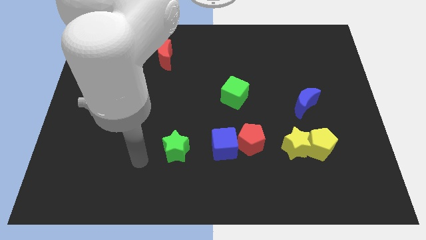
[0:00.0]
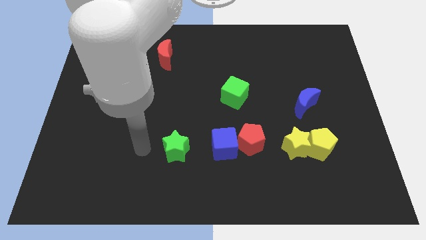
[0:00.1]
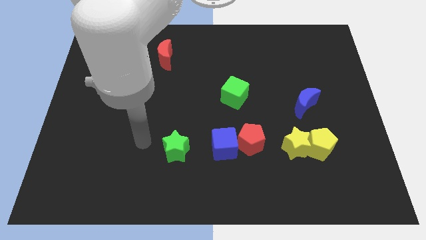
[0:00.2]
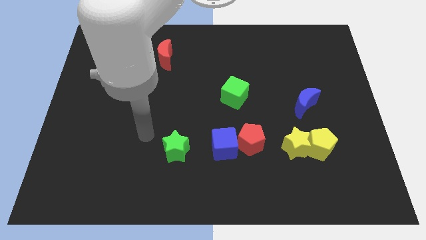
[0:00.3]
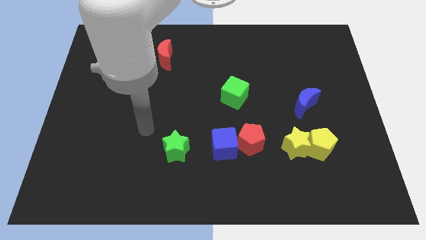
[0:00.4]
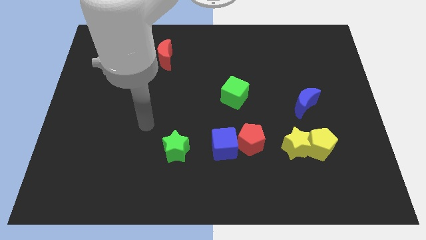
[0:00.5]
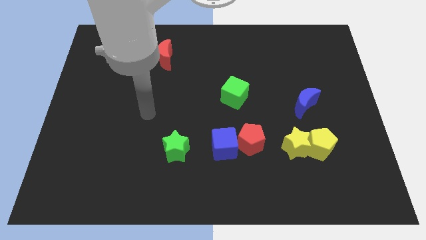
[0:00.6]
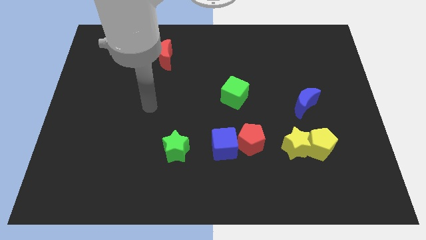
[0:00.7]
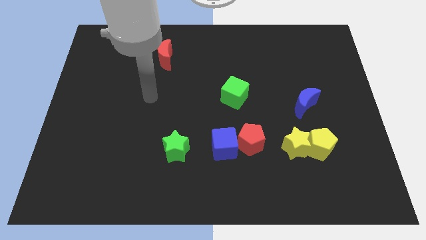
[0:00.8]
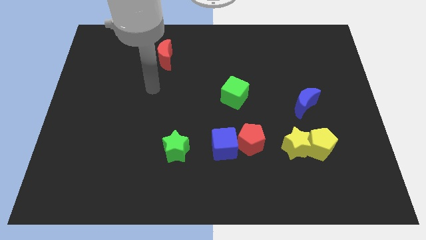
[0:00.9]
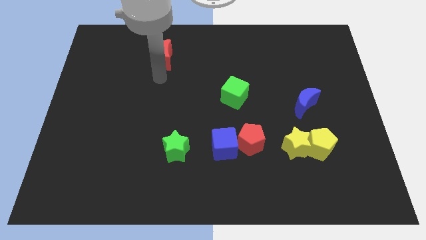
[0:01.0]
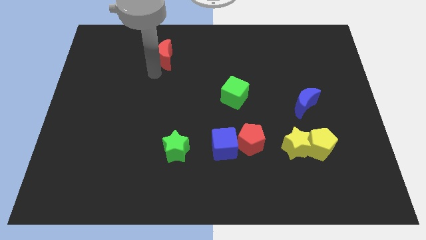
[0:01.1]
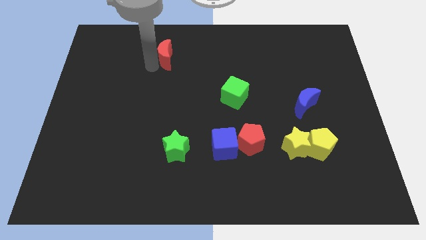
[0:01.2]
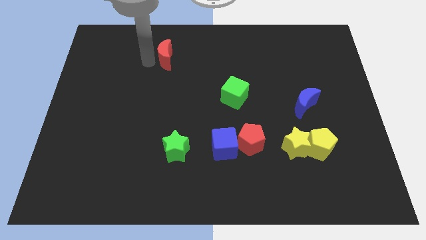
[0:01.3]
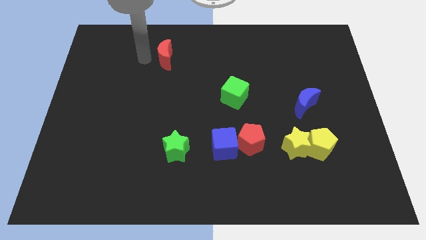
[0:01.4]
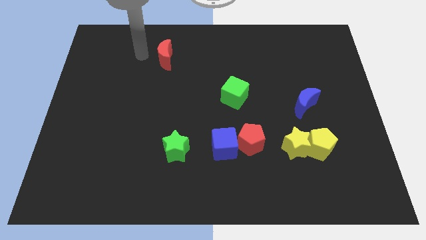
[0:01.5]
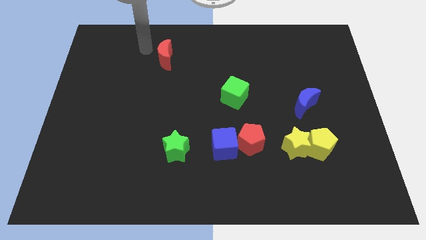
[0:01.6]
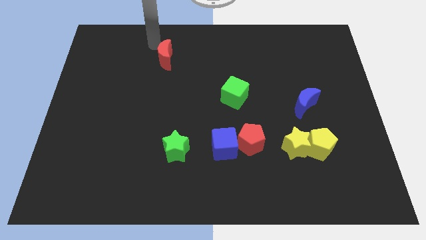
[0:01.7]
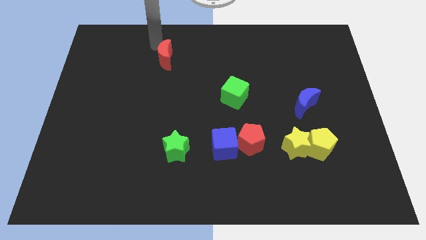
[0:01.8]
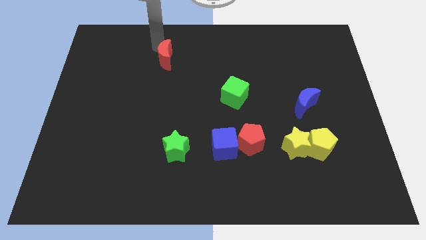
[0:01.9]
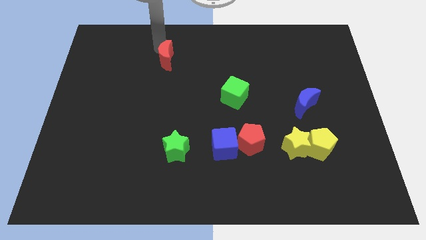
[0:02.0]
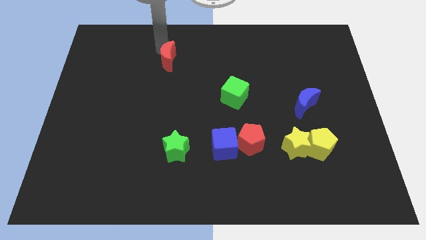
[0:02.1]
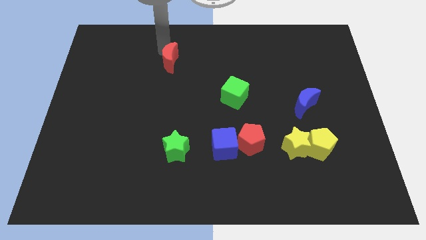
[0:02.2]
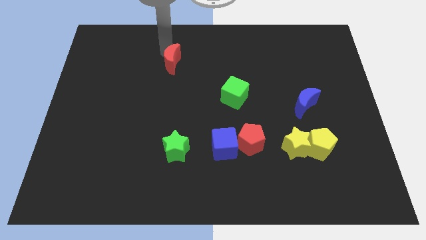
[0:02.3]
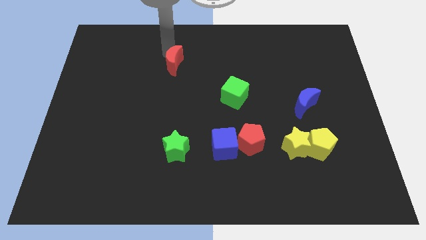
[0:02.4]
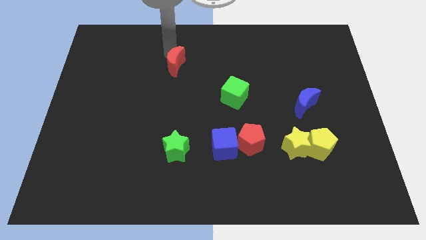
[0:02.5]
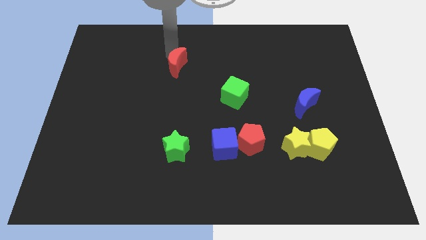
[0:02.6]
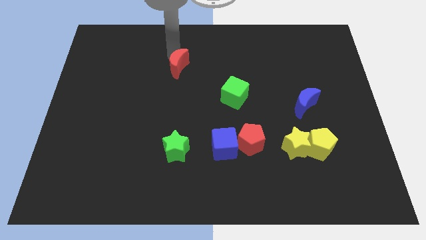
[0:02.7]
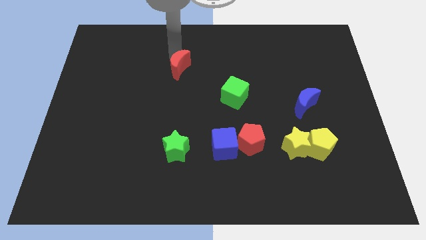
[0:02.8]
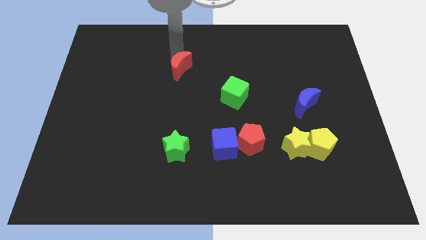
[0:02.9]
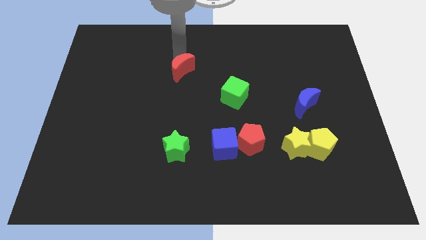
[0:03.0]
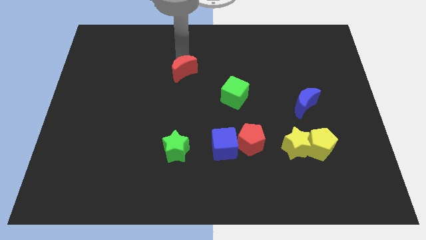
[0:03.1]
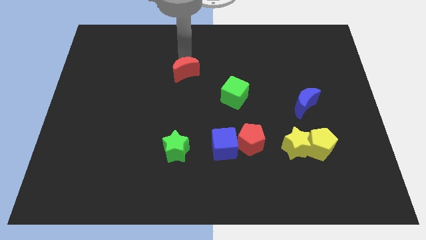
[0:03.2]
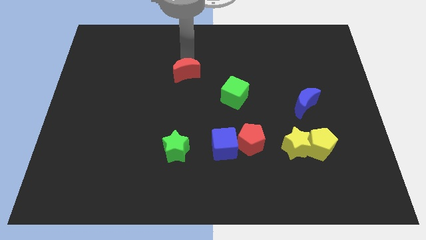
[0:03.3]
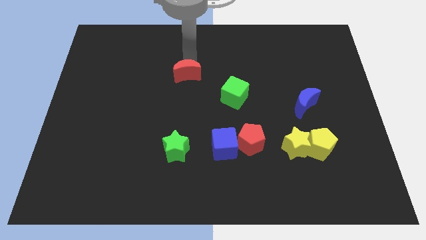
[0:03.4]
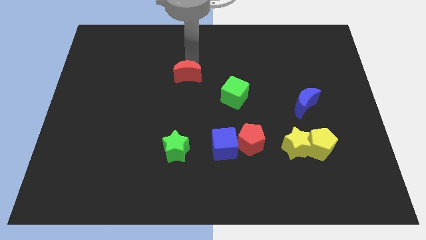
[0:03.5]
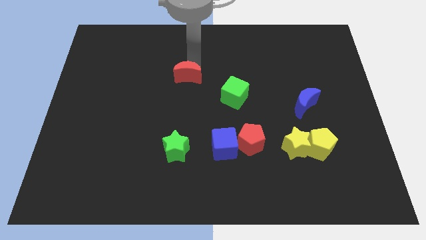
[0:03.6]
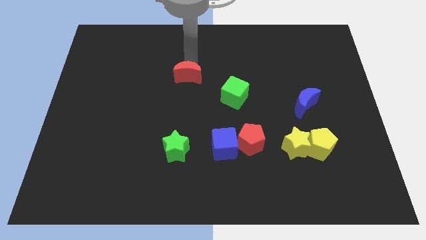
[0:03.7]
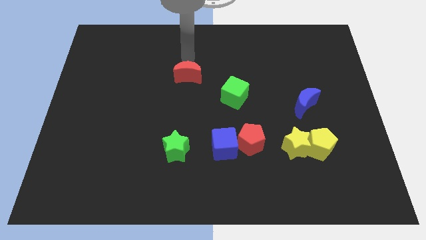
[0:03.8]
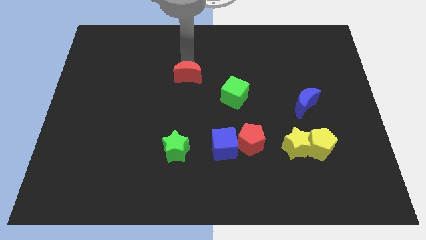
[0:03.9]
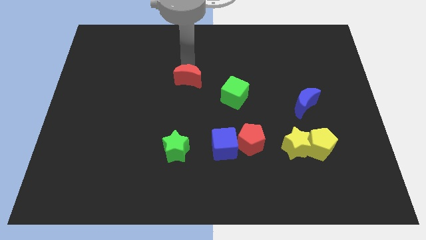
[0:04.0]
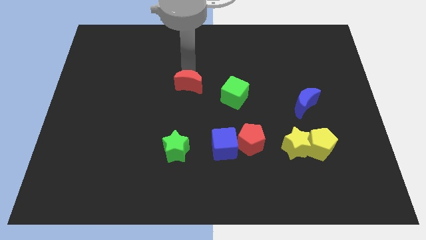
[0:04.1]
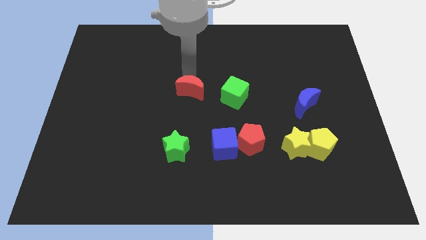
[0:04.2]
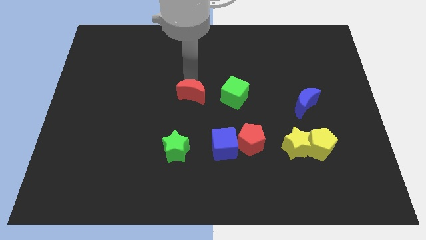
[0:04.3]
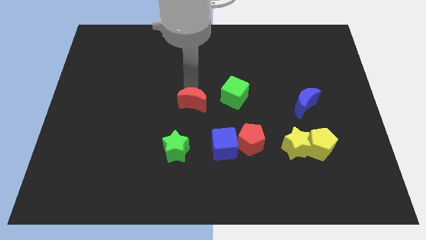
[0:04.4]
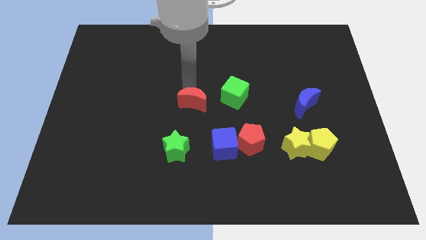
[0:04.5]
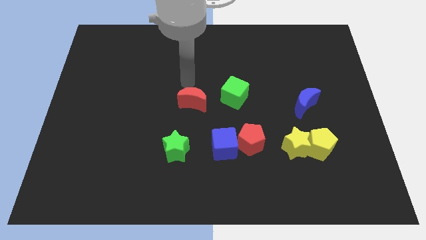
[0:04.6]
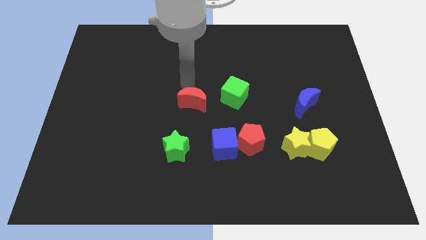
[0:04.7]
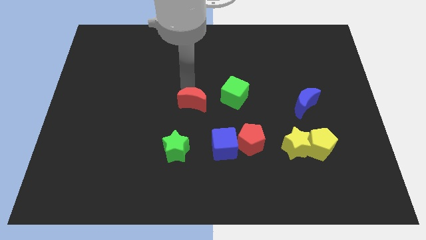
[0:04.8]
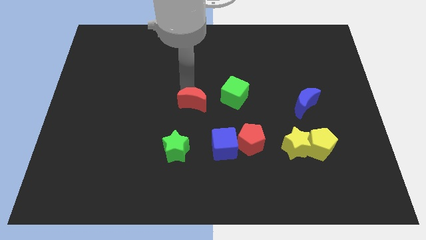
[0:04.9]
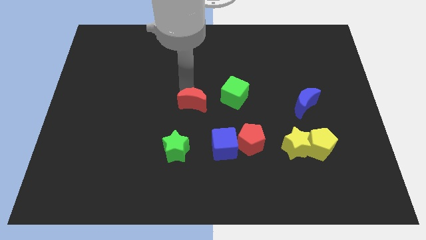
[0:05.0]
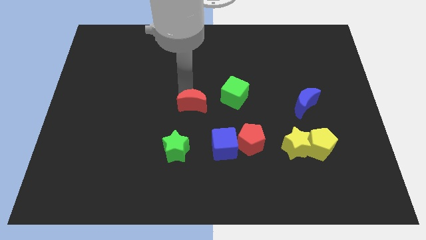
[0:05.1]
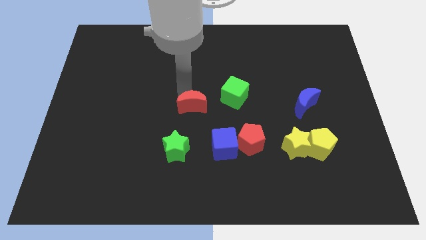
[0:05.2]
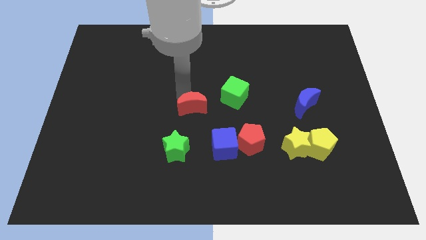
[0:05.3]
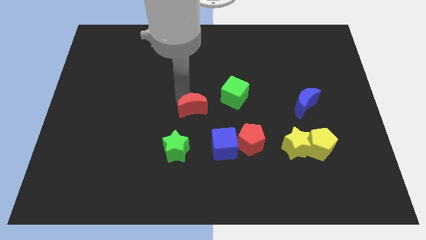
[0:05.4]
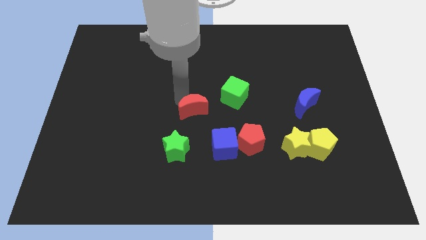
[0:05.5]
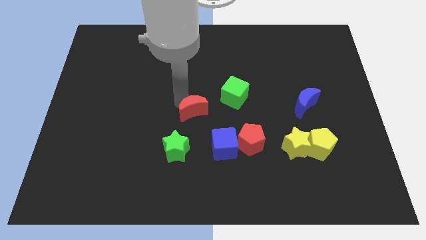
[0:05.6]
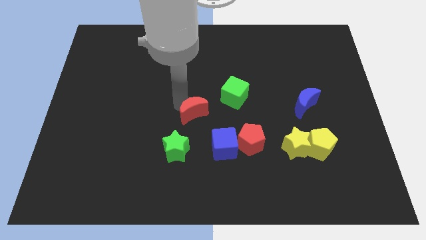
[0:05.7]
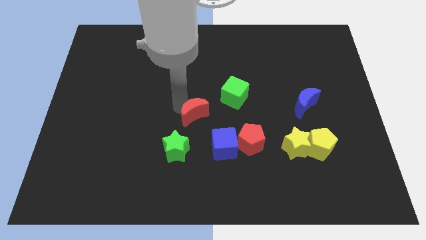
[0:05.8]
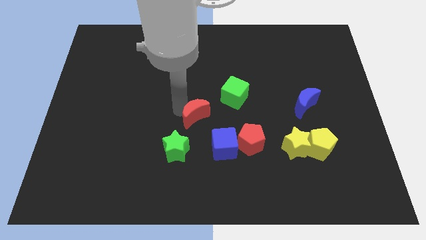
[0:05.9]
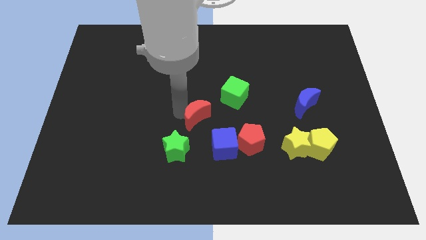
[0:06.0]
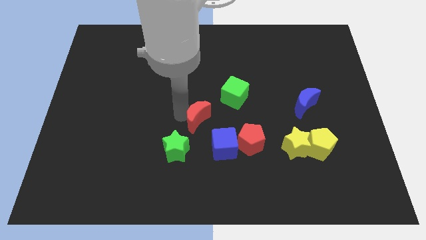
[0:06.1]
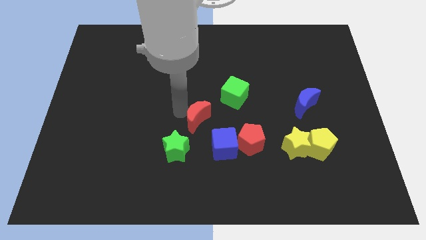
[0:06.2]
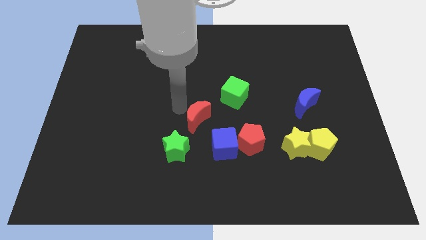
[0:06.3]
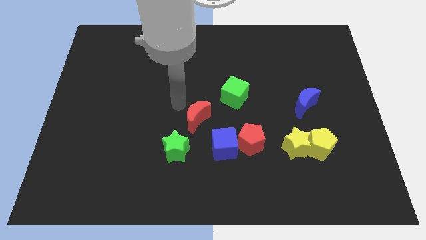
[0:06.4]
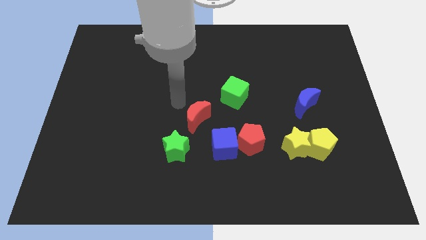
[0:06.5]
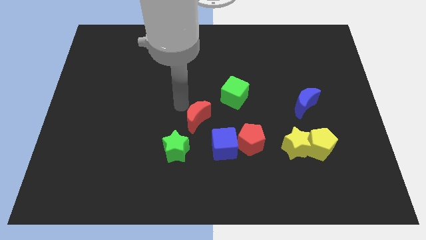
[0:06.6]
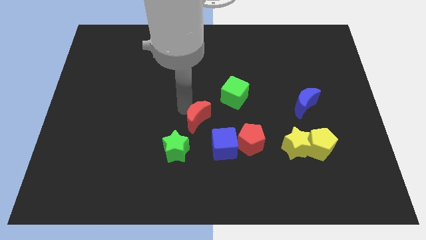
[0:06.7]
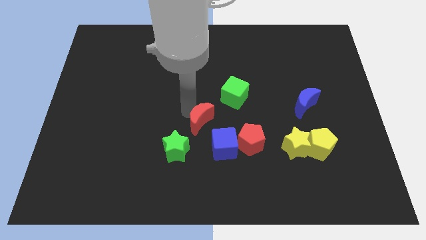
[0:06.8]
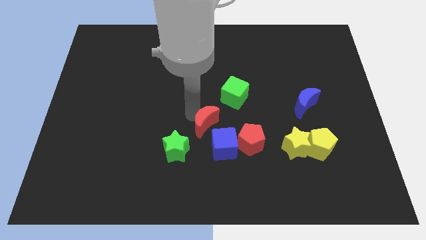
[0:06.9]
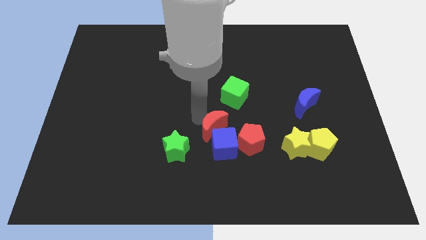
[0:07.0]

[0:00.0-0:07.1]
push the red moon close to the blue cube
